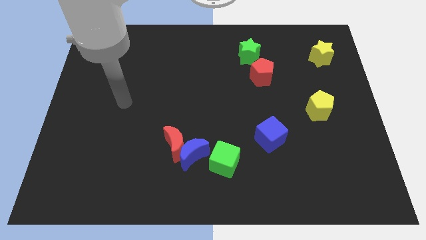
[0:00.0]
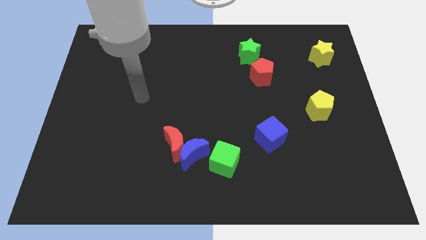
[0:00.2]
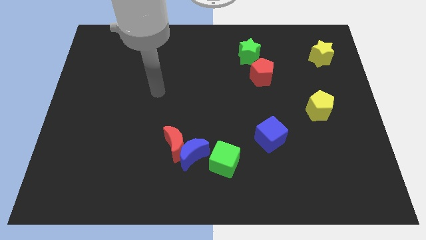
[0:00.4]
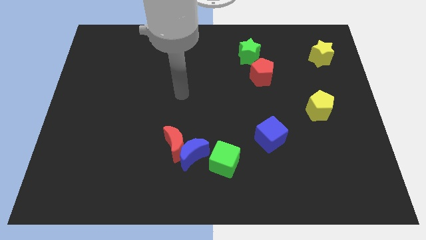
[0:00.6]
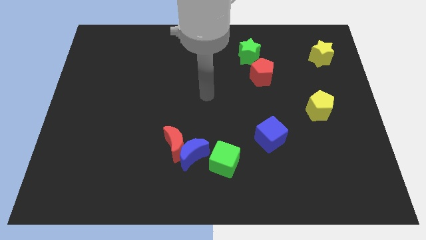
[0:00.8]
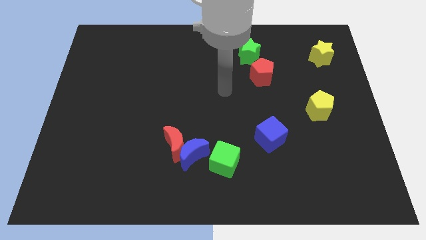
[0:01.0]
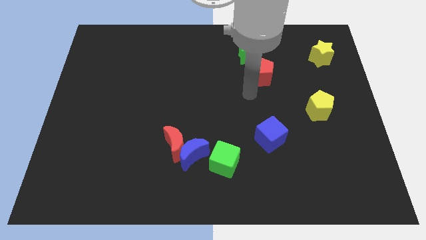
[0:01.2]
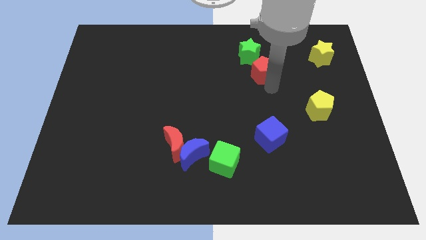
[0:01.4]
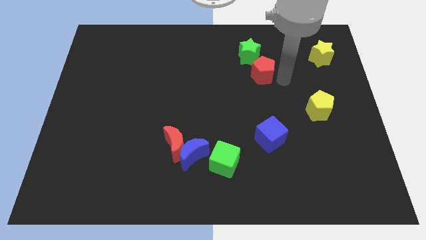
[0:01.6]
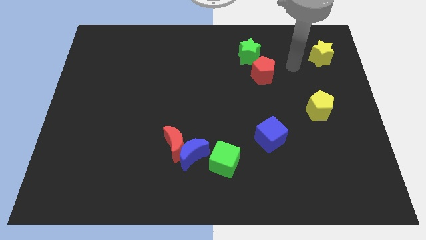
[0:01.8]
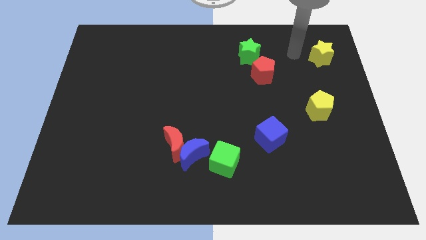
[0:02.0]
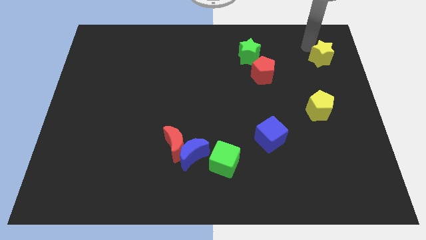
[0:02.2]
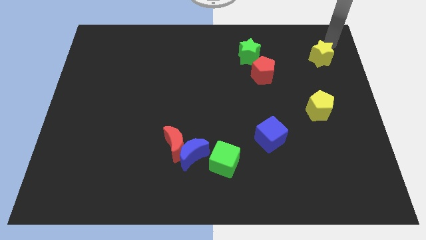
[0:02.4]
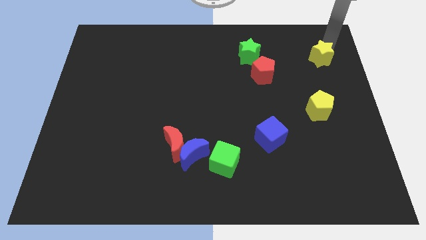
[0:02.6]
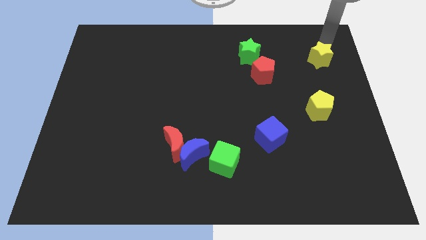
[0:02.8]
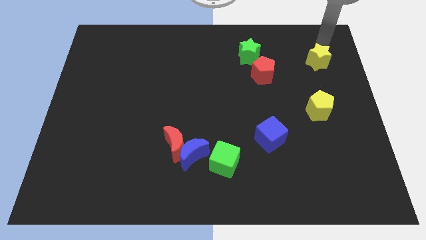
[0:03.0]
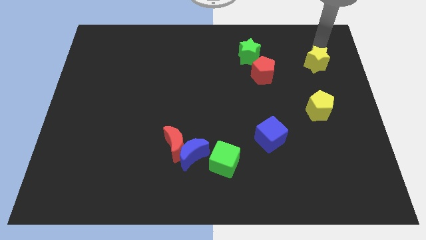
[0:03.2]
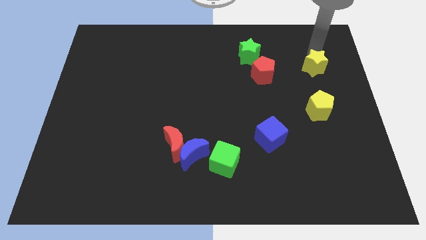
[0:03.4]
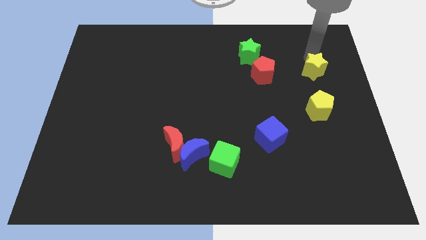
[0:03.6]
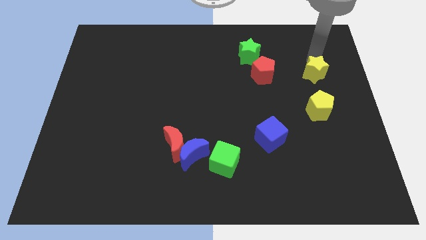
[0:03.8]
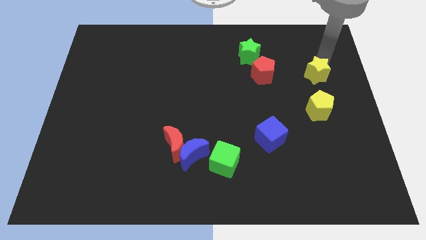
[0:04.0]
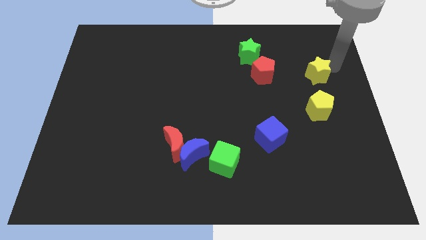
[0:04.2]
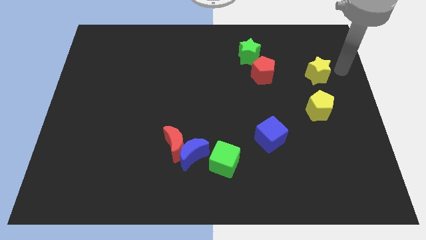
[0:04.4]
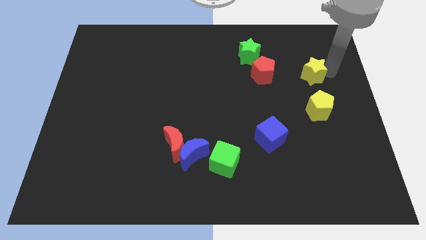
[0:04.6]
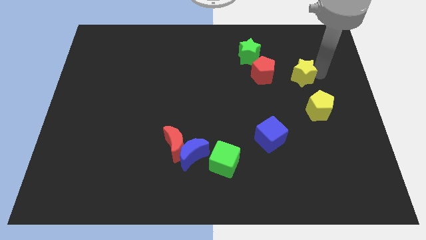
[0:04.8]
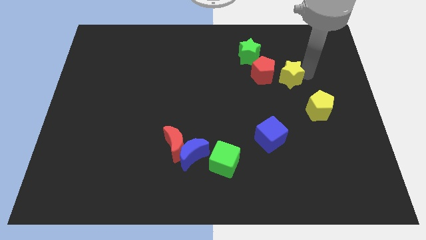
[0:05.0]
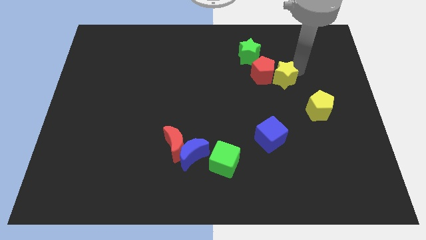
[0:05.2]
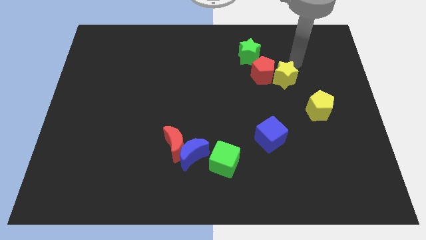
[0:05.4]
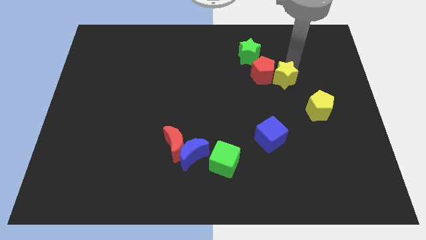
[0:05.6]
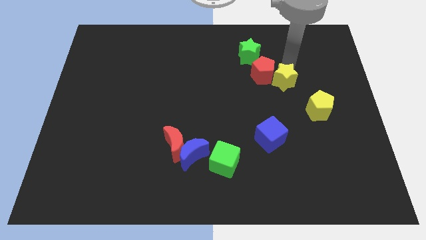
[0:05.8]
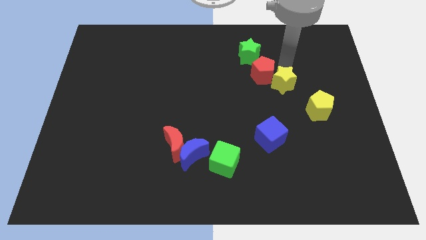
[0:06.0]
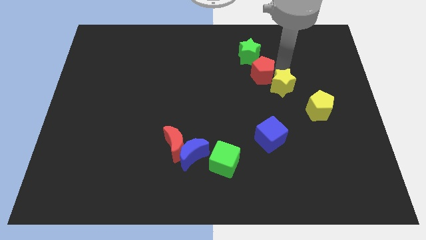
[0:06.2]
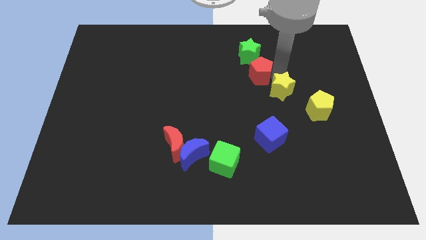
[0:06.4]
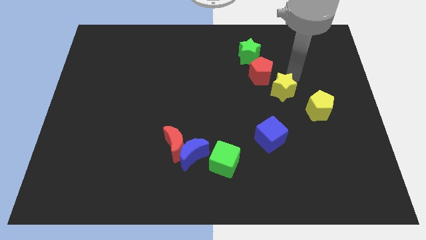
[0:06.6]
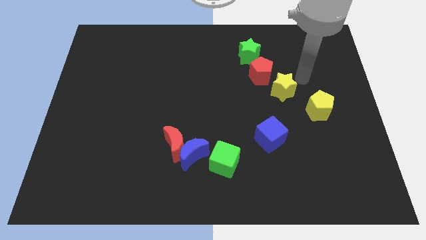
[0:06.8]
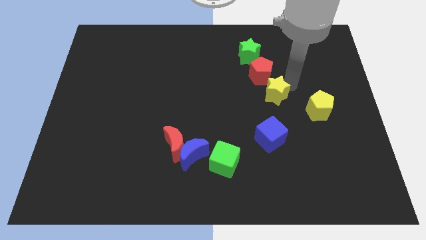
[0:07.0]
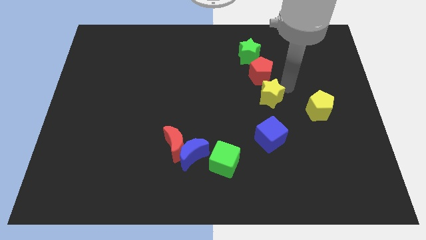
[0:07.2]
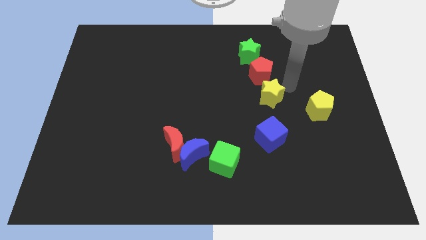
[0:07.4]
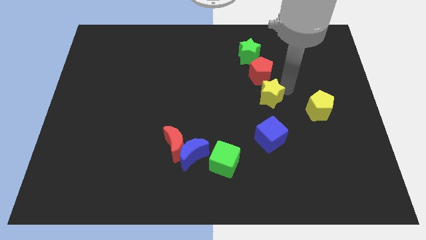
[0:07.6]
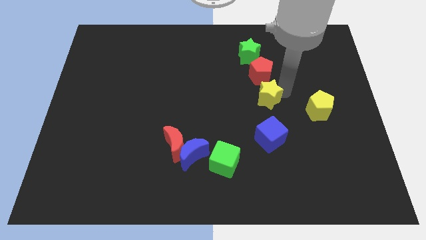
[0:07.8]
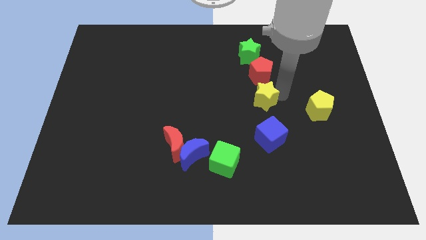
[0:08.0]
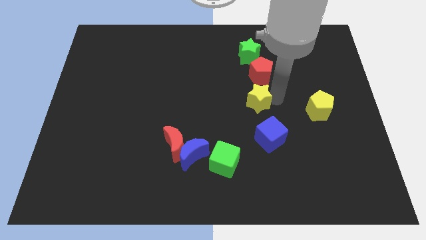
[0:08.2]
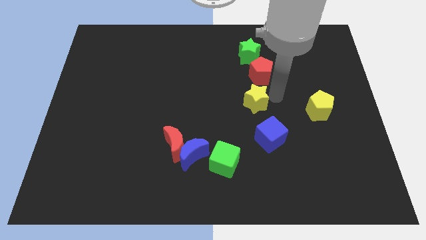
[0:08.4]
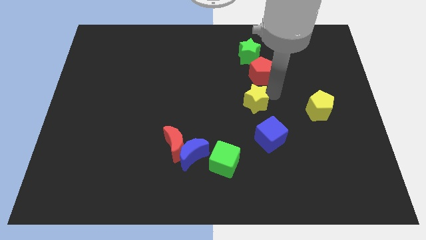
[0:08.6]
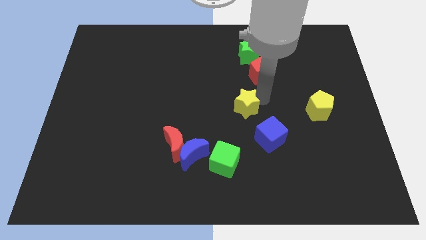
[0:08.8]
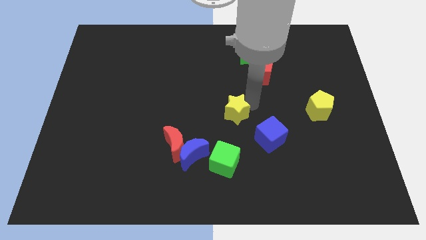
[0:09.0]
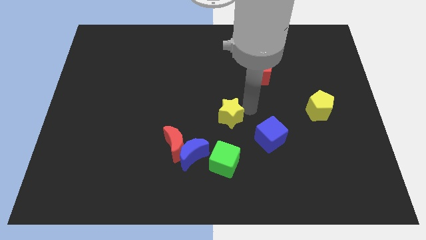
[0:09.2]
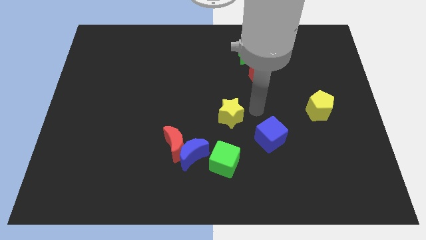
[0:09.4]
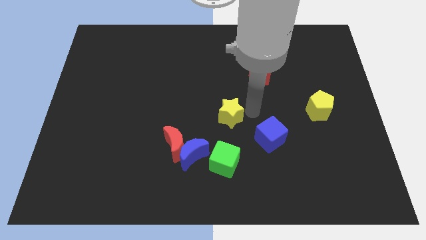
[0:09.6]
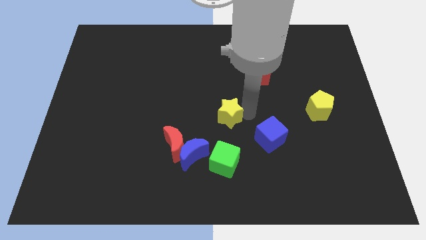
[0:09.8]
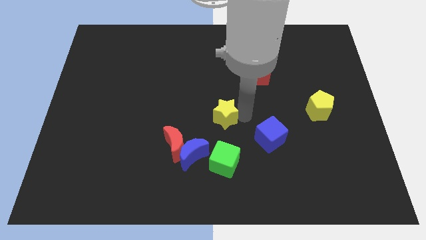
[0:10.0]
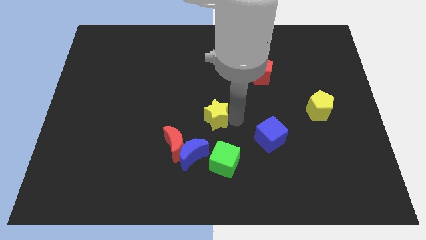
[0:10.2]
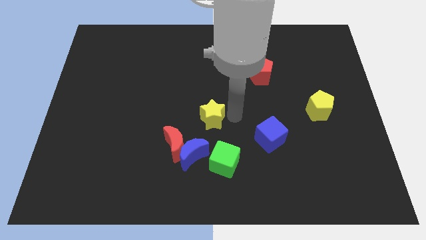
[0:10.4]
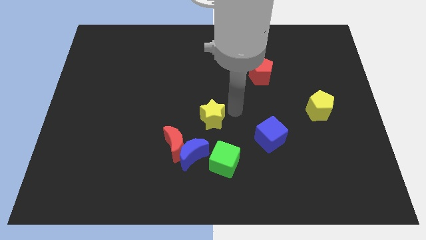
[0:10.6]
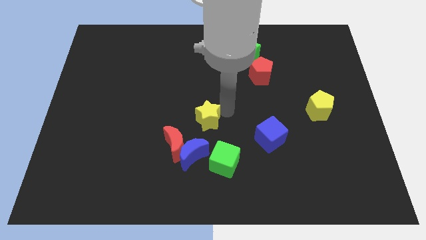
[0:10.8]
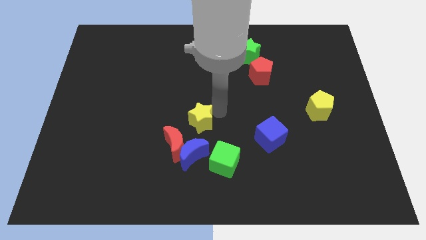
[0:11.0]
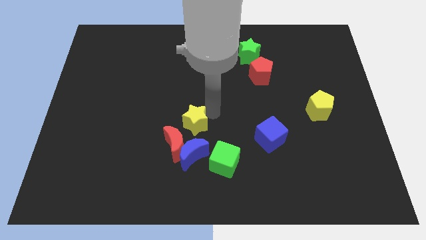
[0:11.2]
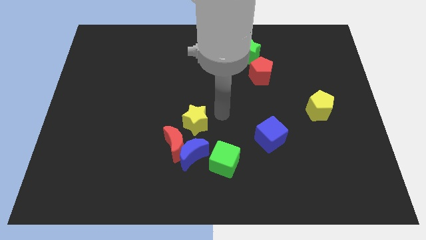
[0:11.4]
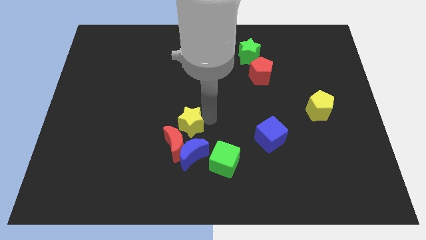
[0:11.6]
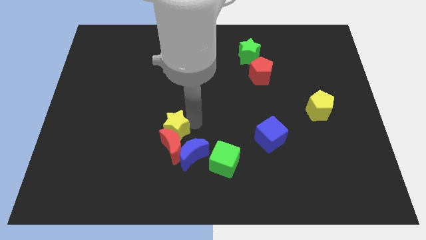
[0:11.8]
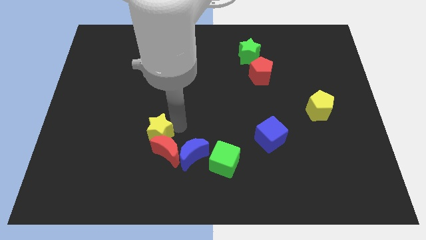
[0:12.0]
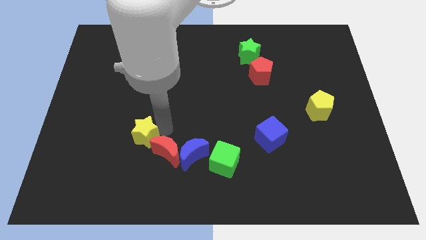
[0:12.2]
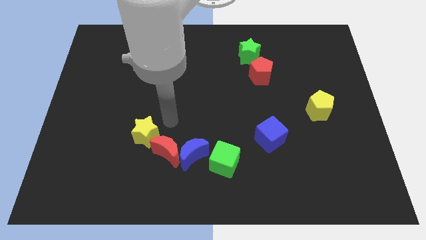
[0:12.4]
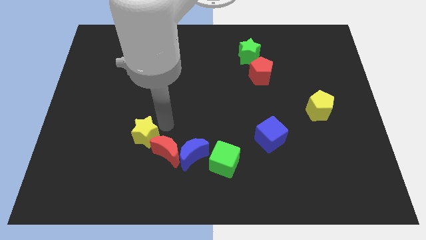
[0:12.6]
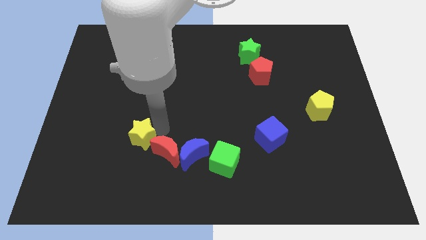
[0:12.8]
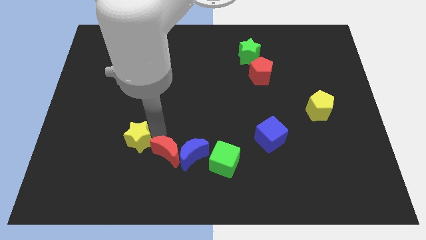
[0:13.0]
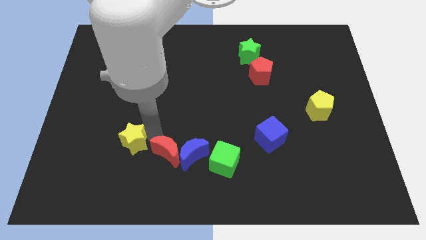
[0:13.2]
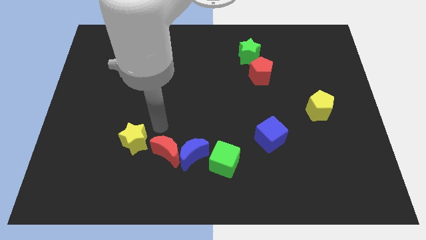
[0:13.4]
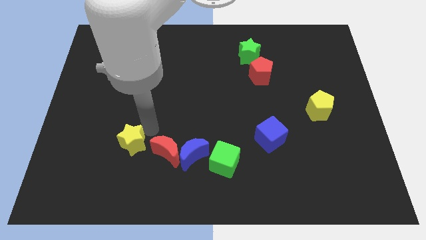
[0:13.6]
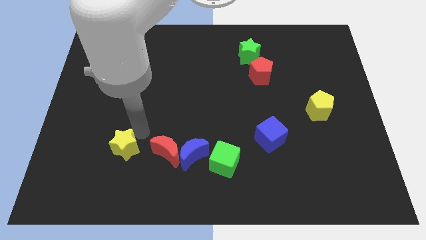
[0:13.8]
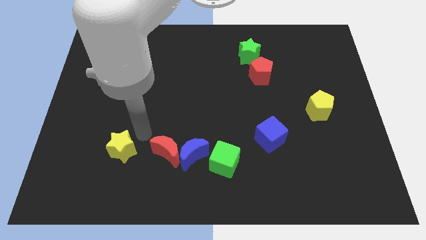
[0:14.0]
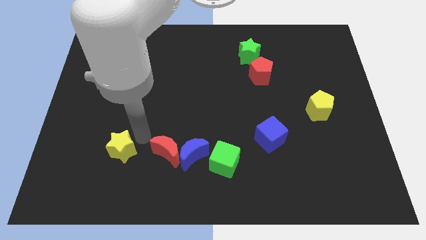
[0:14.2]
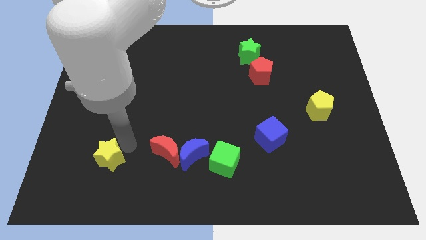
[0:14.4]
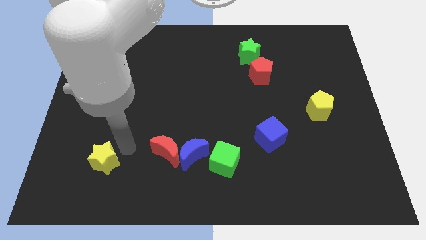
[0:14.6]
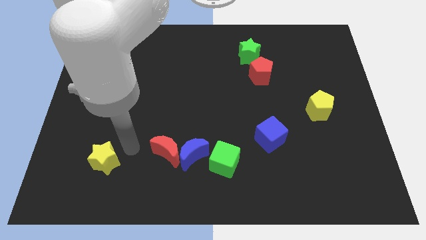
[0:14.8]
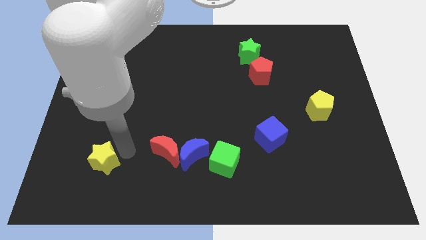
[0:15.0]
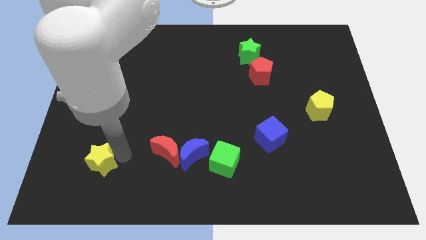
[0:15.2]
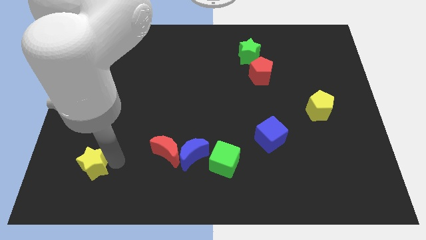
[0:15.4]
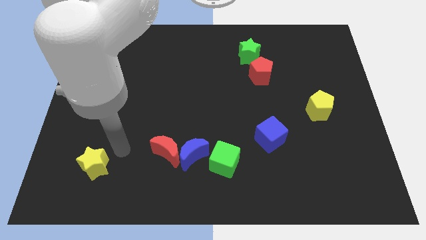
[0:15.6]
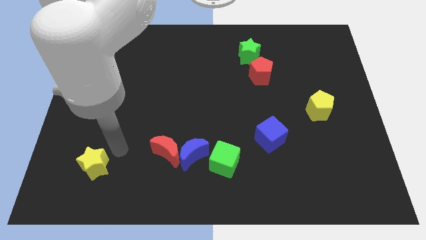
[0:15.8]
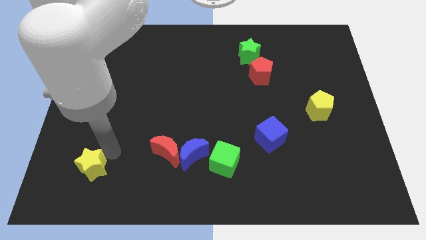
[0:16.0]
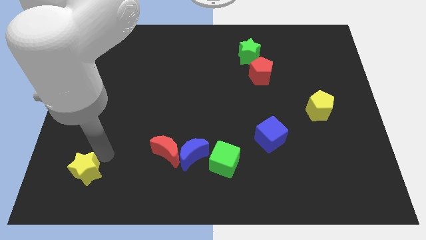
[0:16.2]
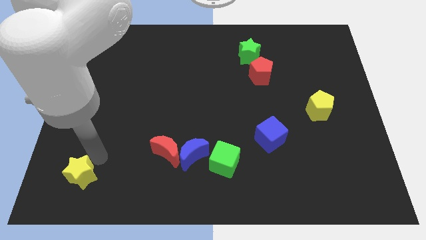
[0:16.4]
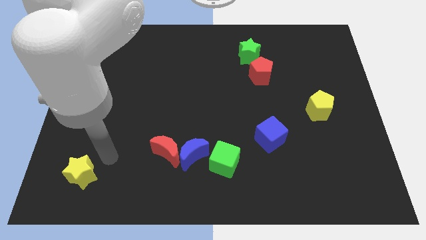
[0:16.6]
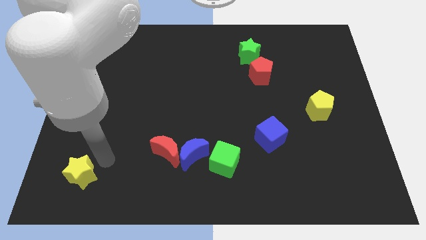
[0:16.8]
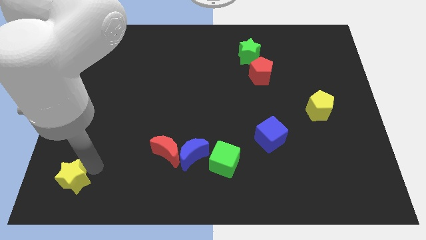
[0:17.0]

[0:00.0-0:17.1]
push the yellow star to the bottom left corner
